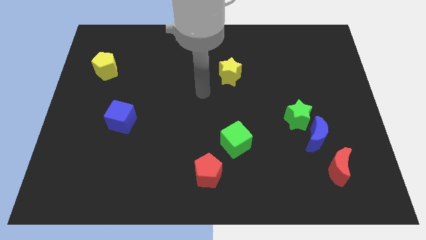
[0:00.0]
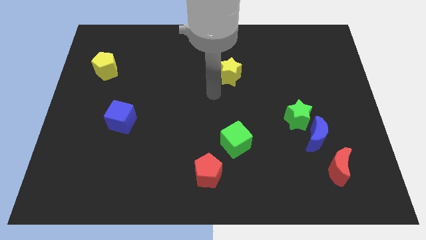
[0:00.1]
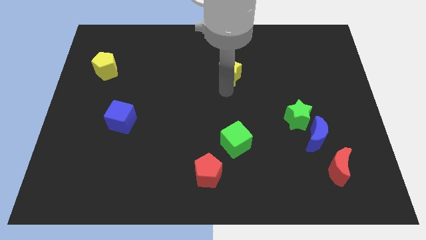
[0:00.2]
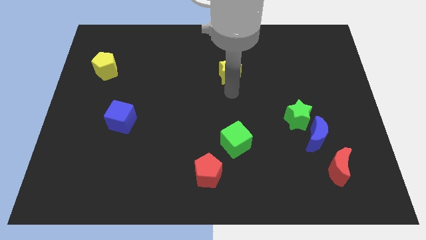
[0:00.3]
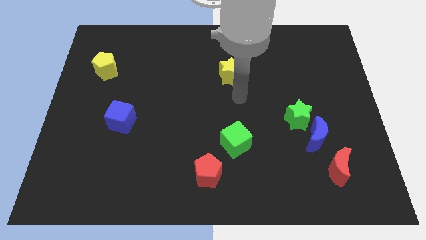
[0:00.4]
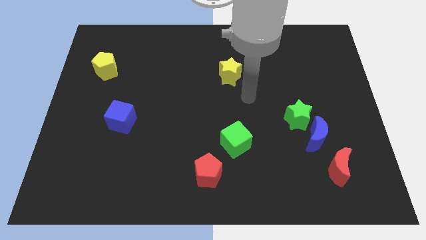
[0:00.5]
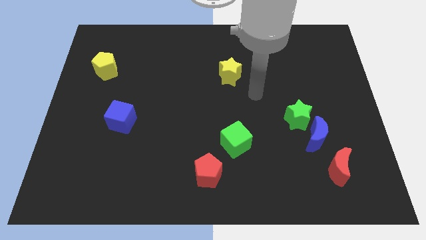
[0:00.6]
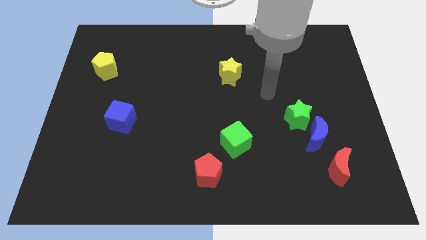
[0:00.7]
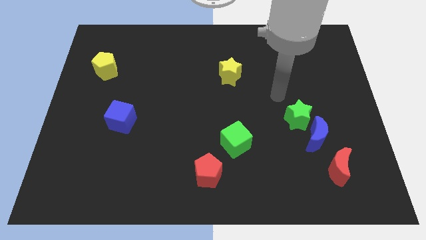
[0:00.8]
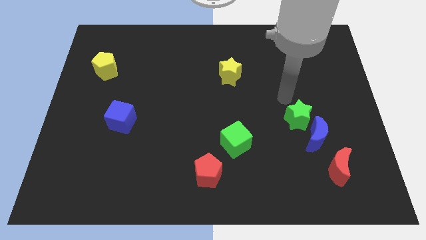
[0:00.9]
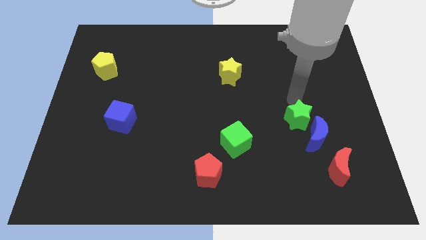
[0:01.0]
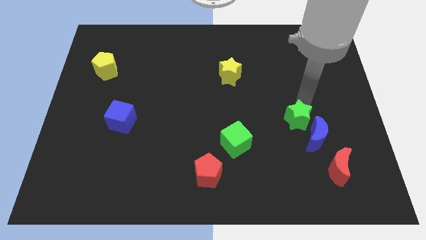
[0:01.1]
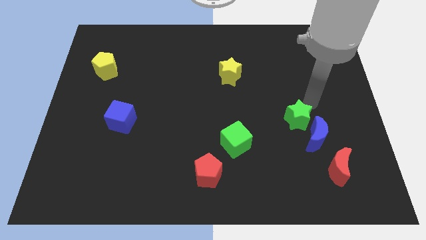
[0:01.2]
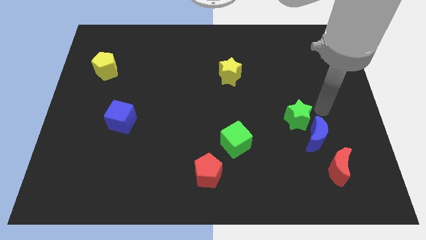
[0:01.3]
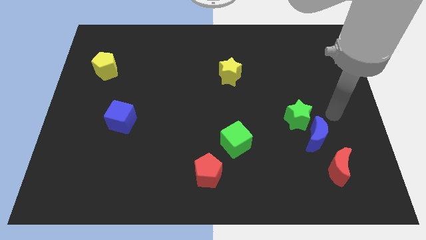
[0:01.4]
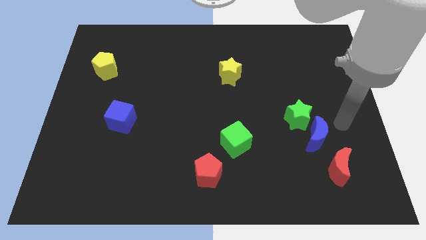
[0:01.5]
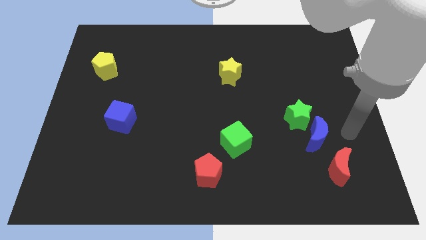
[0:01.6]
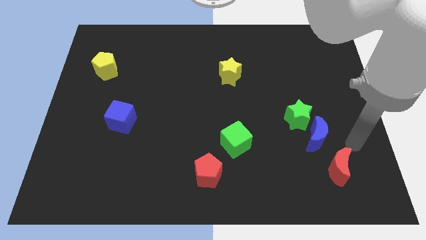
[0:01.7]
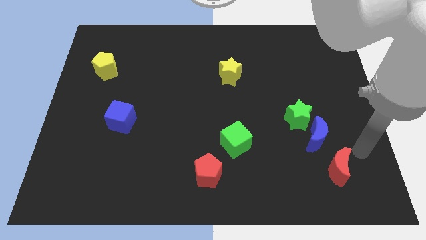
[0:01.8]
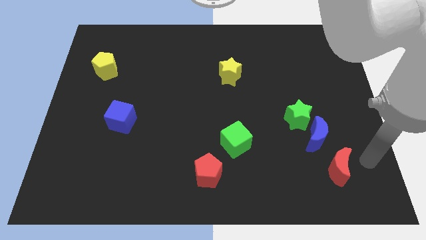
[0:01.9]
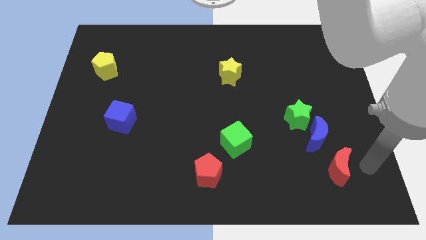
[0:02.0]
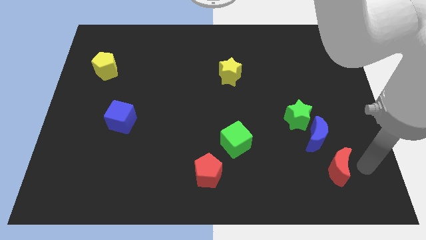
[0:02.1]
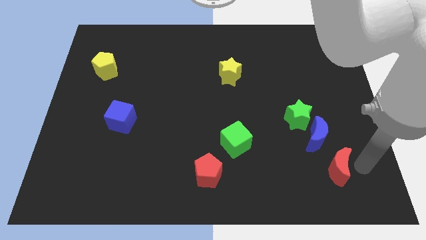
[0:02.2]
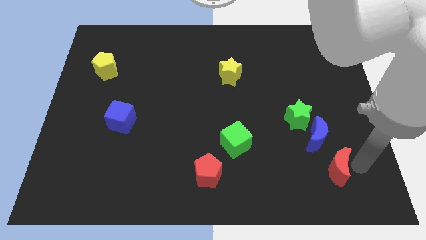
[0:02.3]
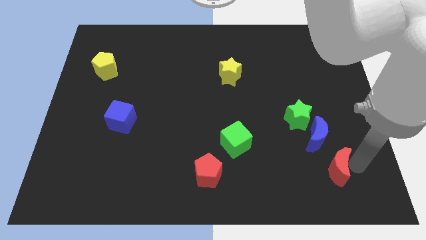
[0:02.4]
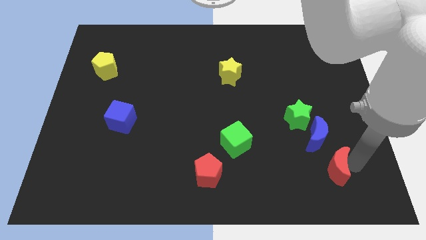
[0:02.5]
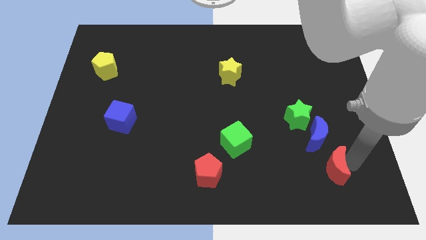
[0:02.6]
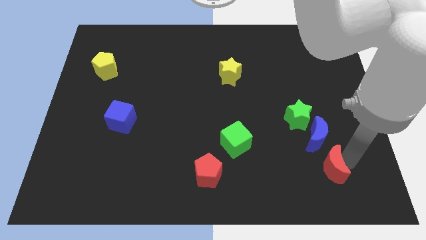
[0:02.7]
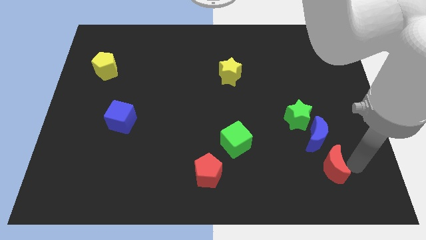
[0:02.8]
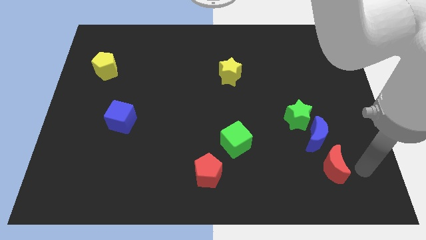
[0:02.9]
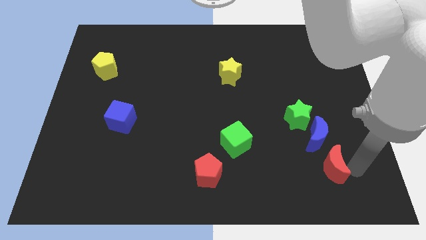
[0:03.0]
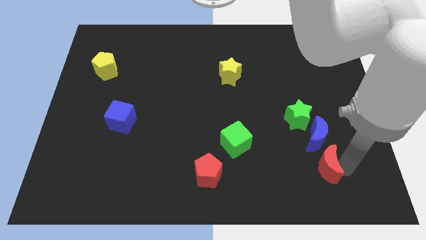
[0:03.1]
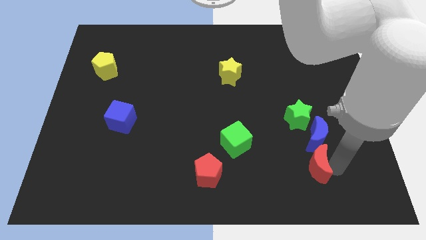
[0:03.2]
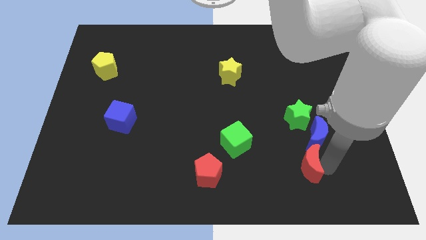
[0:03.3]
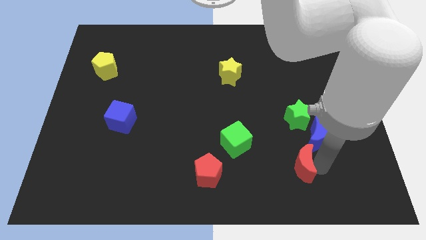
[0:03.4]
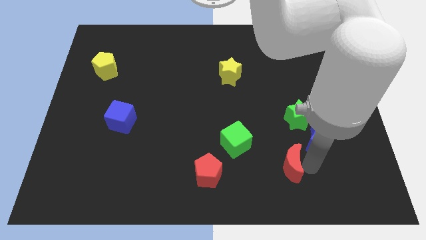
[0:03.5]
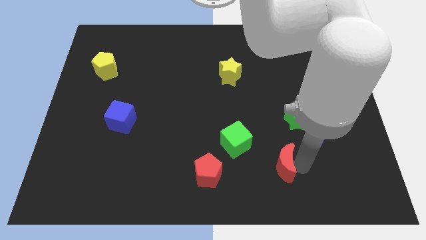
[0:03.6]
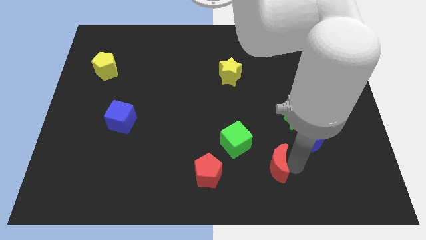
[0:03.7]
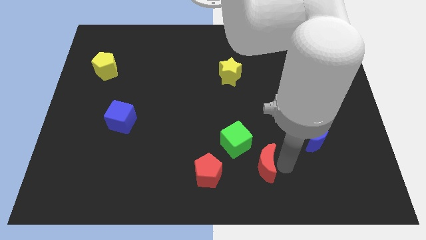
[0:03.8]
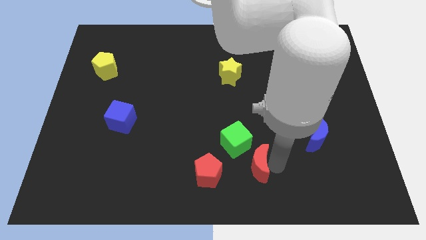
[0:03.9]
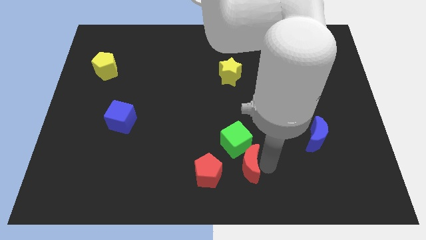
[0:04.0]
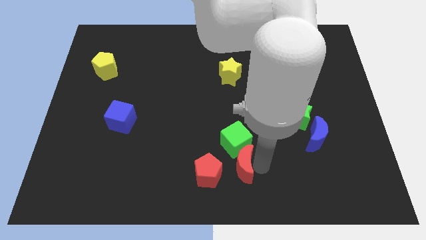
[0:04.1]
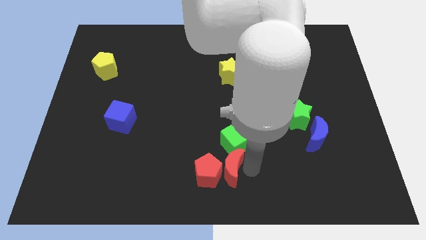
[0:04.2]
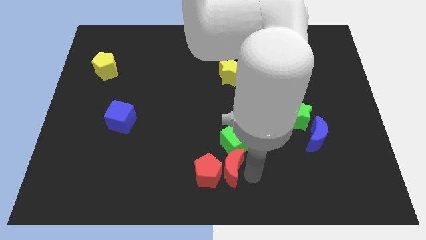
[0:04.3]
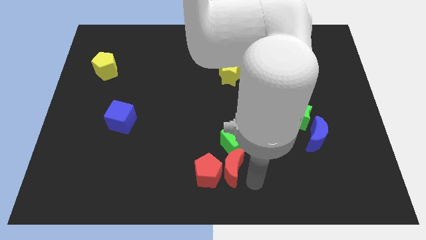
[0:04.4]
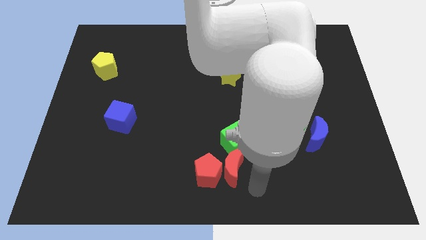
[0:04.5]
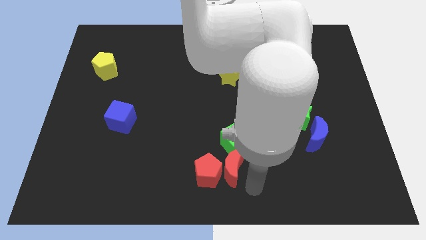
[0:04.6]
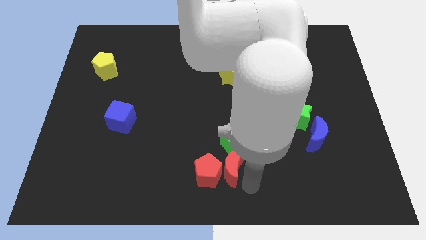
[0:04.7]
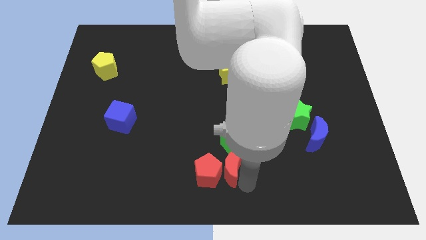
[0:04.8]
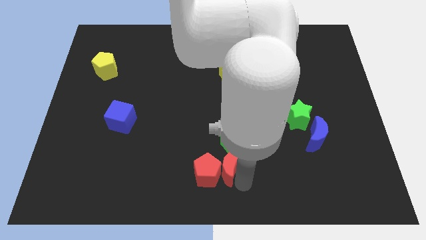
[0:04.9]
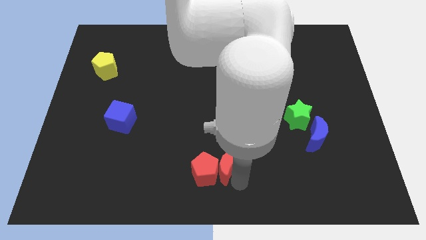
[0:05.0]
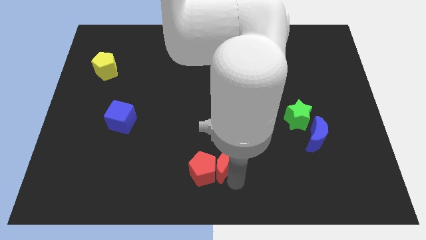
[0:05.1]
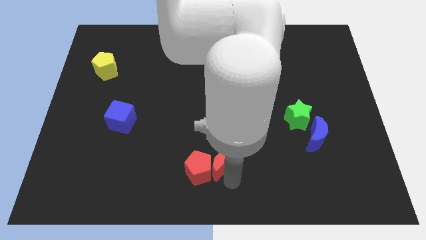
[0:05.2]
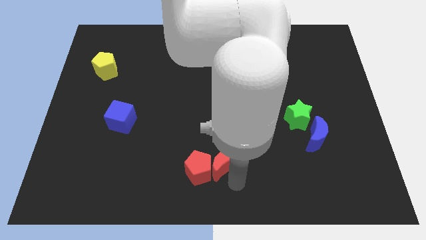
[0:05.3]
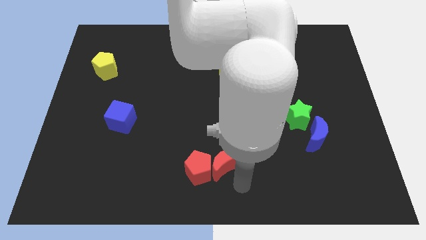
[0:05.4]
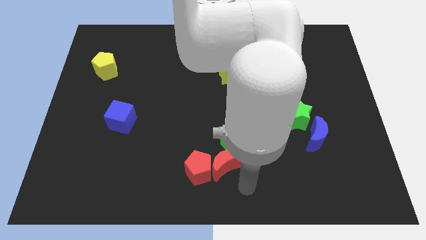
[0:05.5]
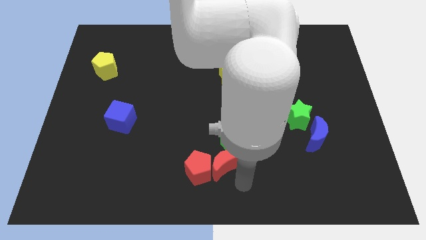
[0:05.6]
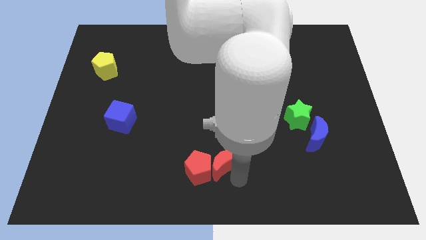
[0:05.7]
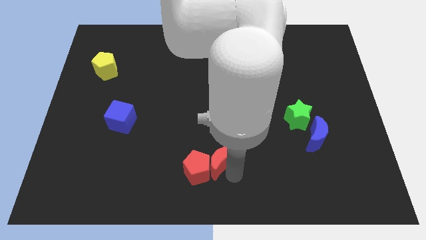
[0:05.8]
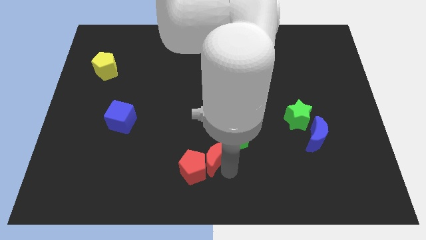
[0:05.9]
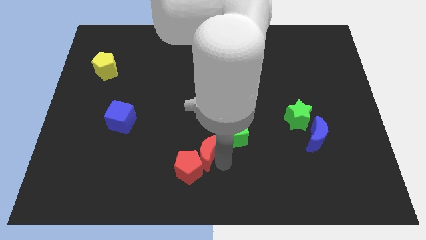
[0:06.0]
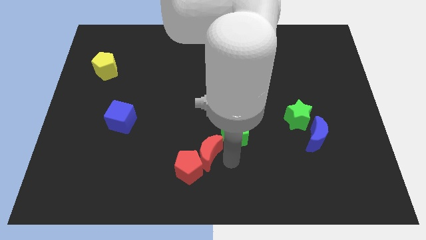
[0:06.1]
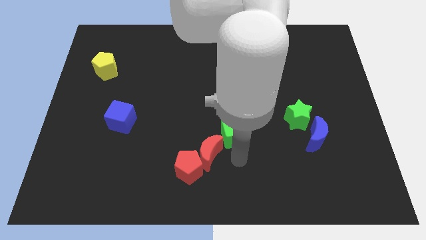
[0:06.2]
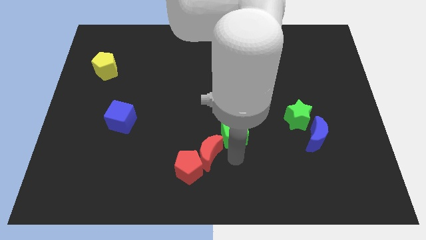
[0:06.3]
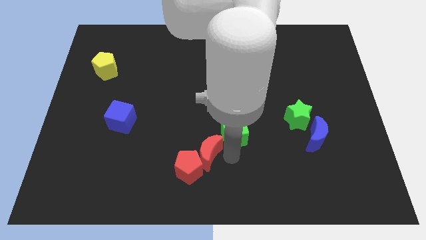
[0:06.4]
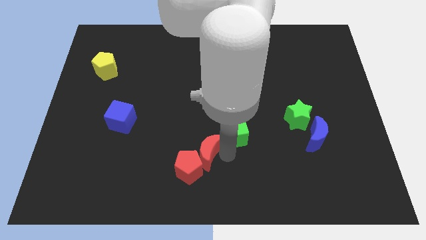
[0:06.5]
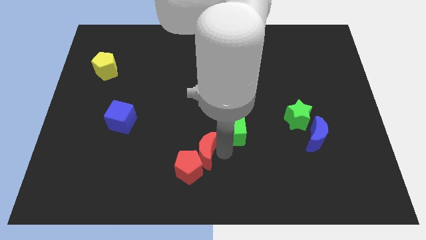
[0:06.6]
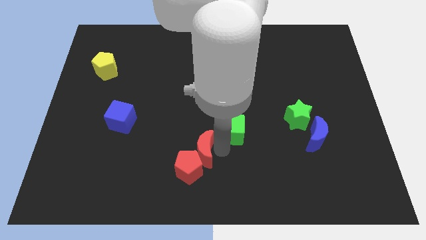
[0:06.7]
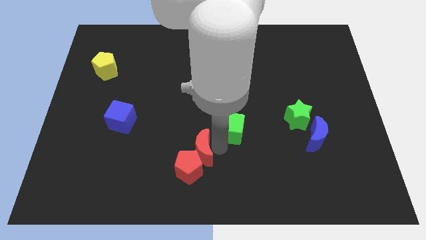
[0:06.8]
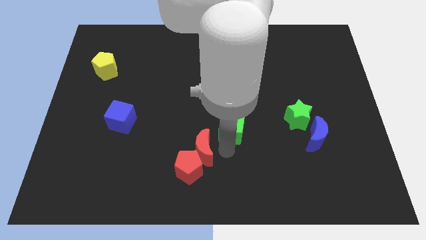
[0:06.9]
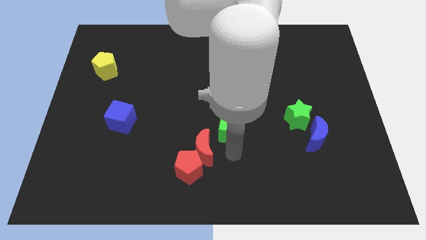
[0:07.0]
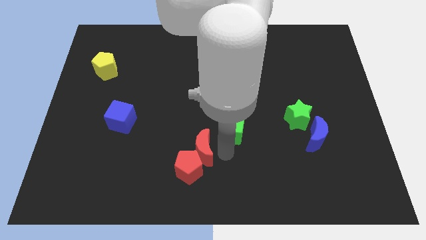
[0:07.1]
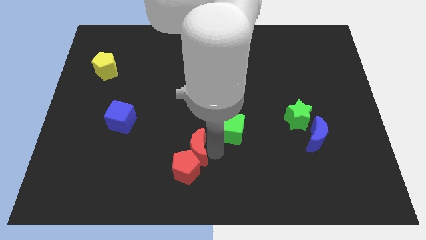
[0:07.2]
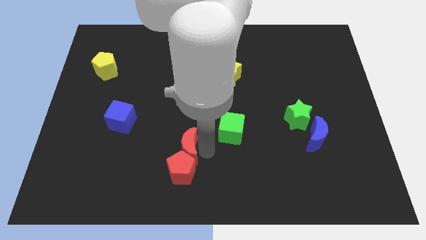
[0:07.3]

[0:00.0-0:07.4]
put the red moon to the top left of the red pentagon
